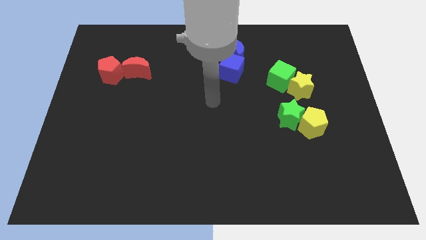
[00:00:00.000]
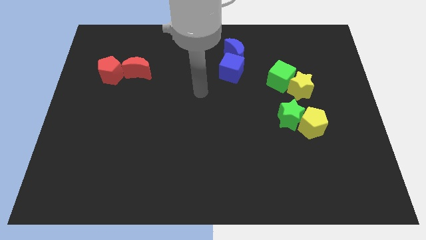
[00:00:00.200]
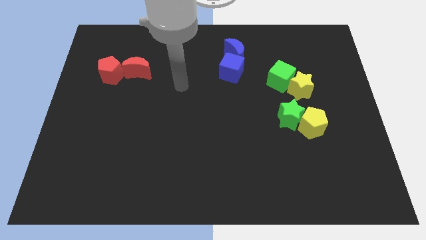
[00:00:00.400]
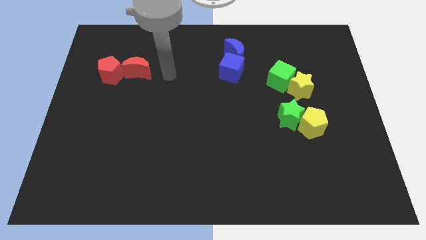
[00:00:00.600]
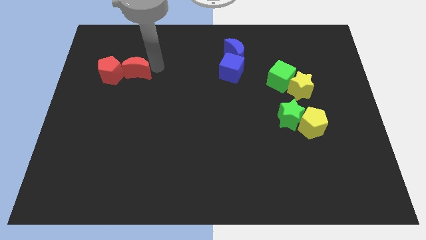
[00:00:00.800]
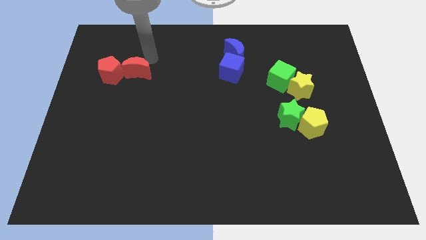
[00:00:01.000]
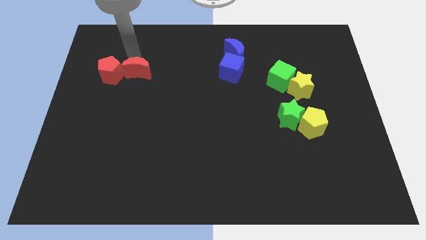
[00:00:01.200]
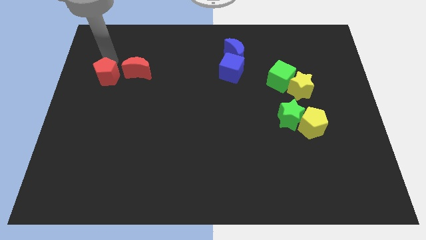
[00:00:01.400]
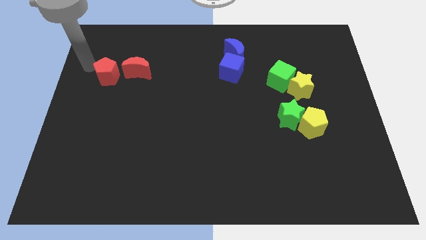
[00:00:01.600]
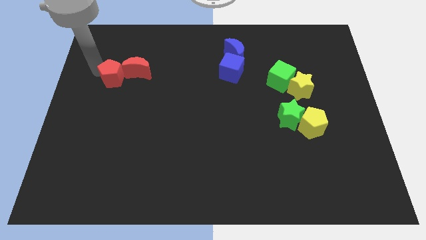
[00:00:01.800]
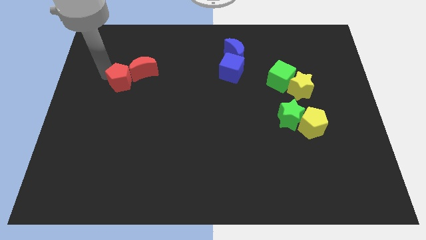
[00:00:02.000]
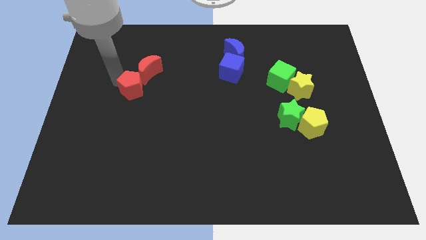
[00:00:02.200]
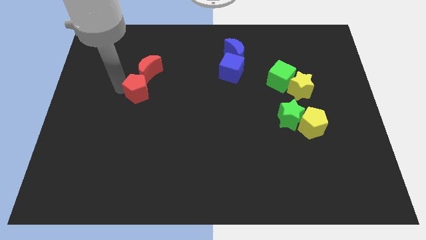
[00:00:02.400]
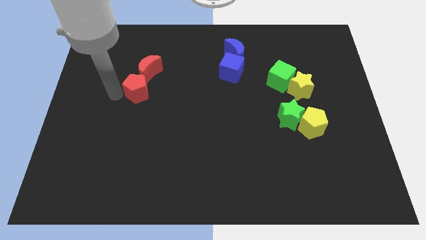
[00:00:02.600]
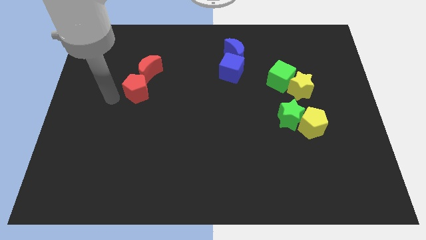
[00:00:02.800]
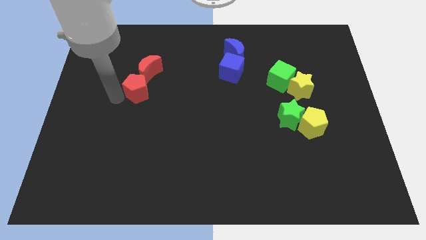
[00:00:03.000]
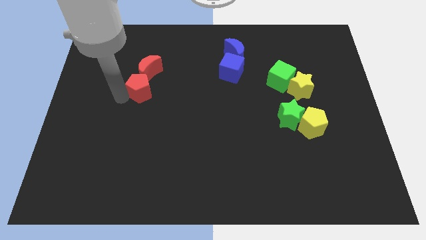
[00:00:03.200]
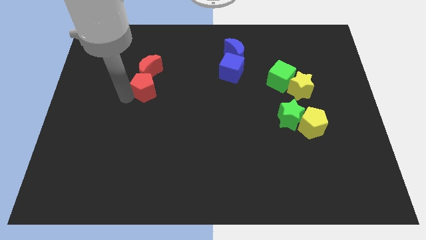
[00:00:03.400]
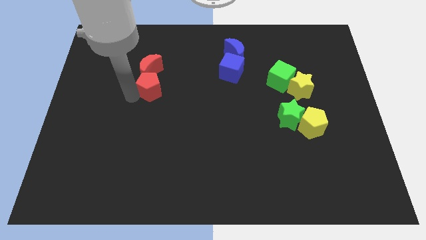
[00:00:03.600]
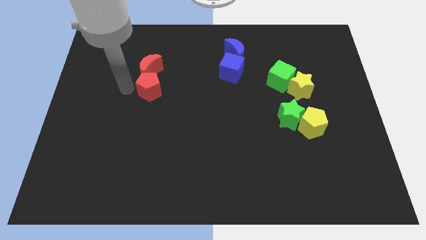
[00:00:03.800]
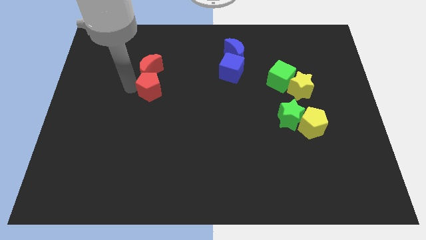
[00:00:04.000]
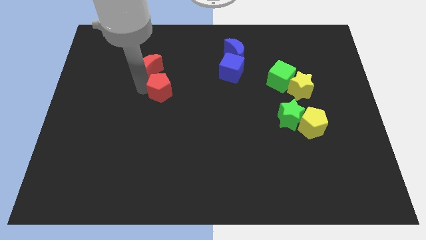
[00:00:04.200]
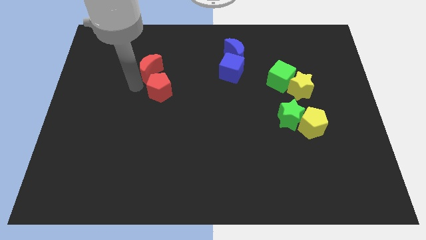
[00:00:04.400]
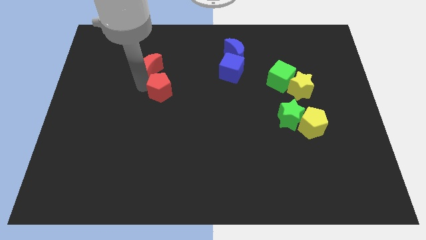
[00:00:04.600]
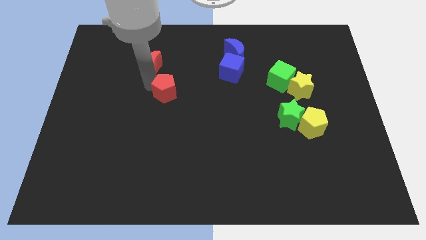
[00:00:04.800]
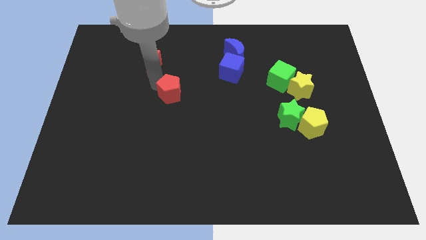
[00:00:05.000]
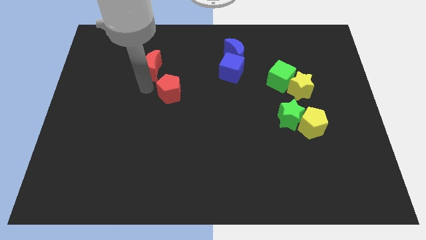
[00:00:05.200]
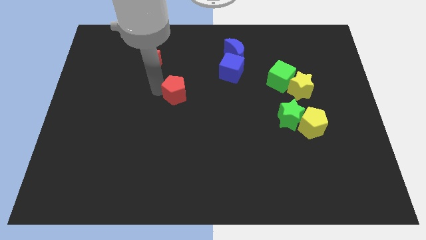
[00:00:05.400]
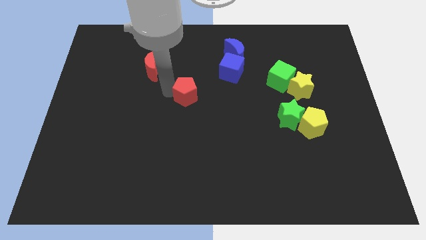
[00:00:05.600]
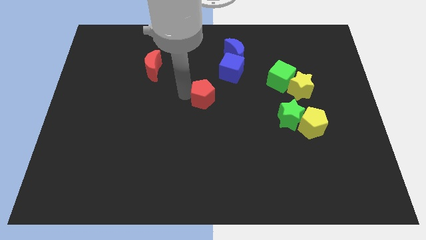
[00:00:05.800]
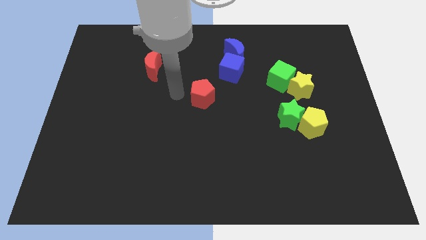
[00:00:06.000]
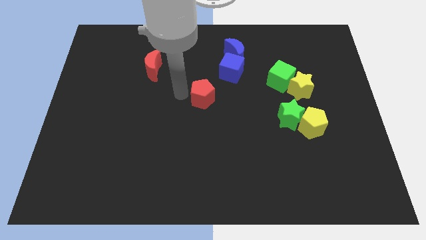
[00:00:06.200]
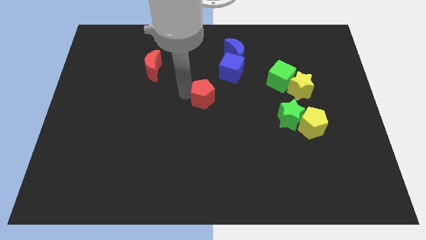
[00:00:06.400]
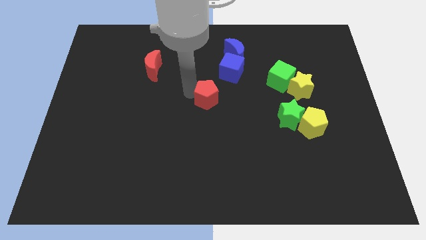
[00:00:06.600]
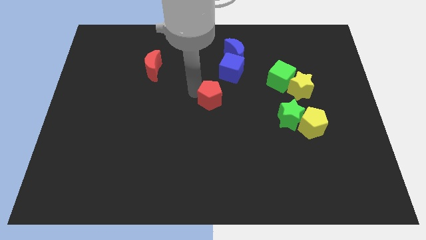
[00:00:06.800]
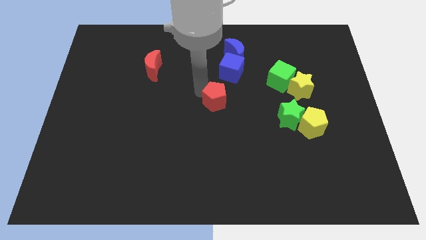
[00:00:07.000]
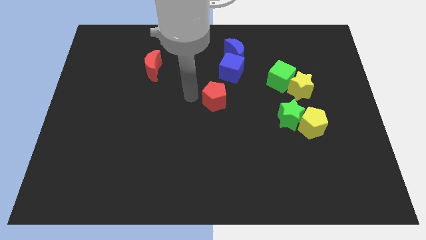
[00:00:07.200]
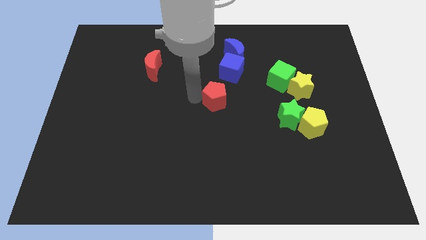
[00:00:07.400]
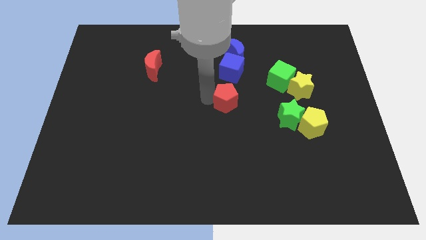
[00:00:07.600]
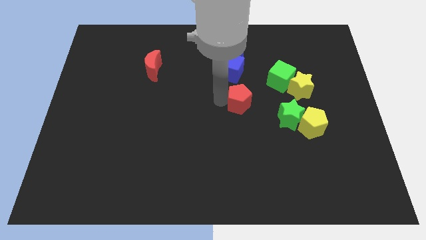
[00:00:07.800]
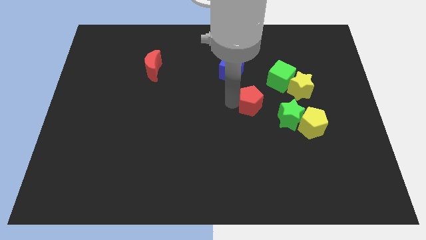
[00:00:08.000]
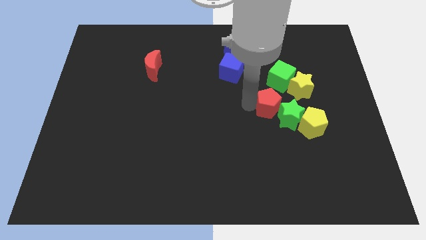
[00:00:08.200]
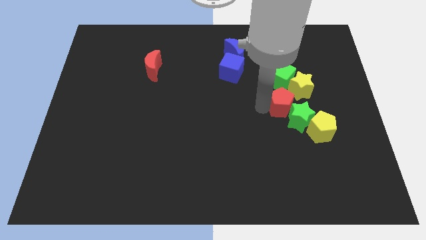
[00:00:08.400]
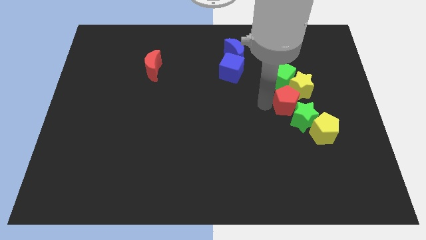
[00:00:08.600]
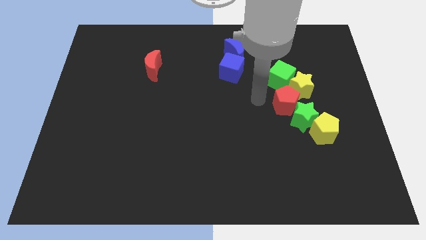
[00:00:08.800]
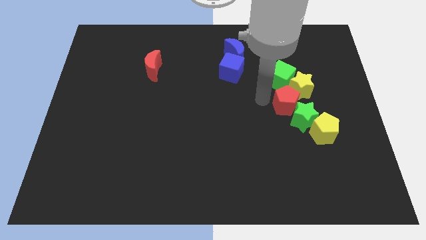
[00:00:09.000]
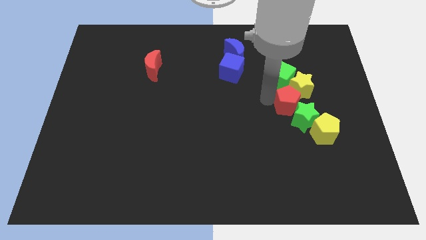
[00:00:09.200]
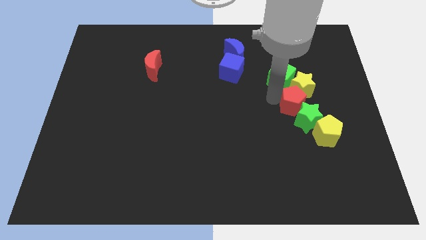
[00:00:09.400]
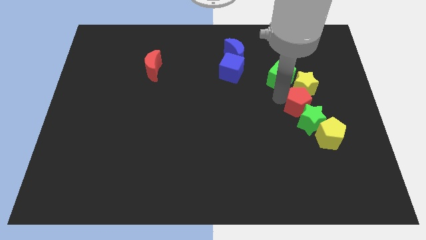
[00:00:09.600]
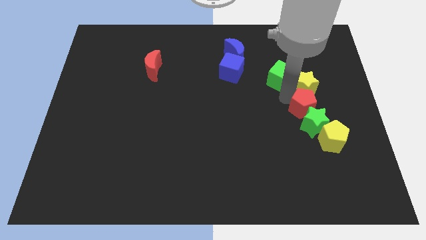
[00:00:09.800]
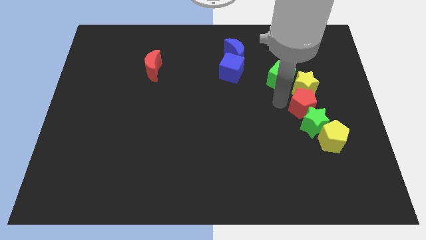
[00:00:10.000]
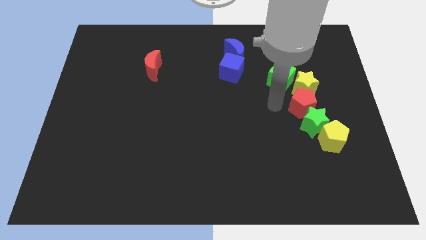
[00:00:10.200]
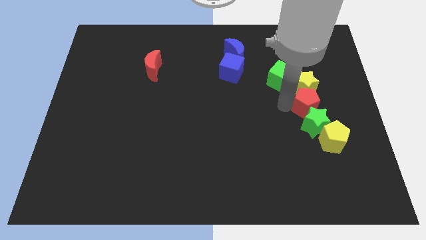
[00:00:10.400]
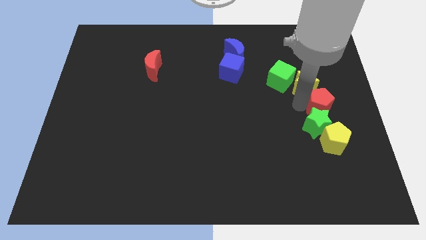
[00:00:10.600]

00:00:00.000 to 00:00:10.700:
put the red pentagon to the right side of the board

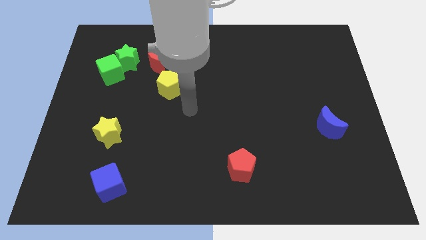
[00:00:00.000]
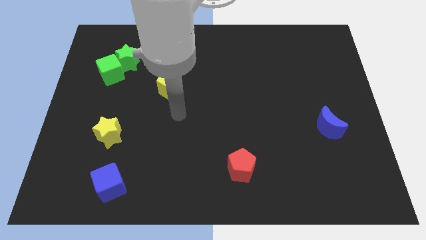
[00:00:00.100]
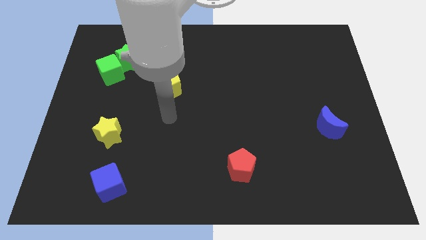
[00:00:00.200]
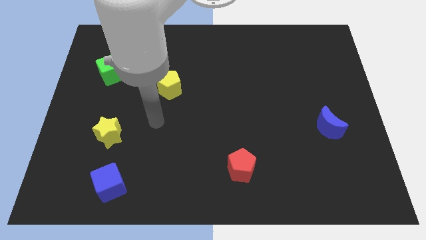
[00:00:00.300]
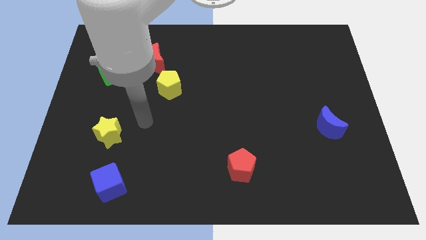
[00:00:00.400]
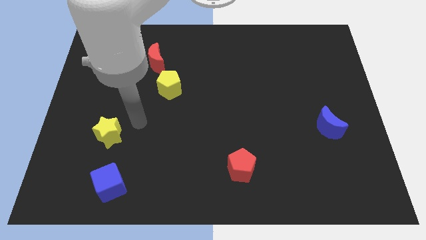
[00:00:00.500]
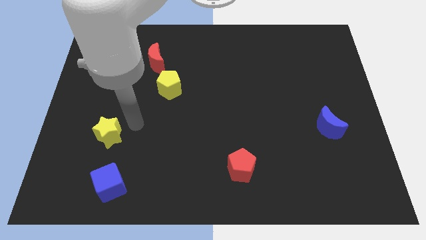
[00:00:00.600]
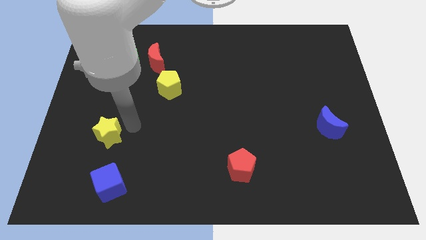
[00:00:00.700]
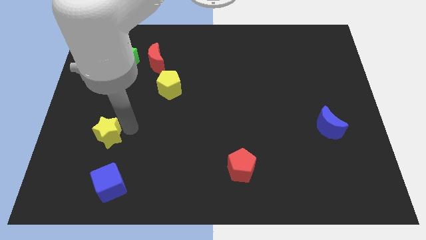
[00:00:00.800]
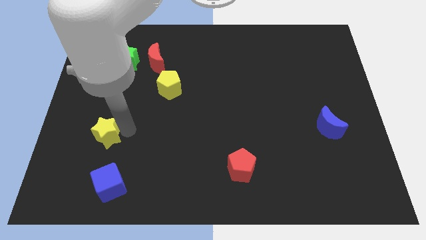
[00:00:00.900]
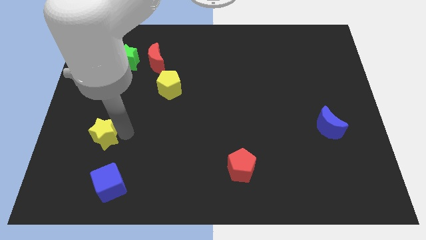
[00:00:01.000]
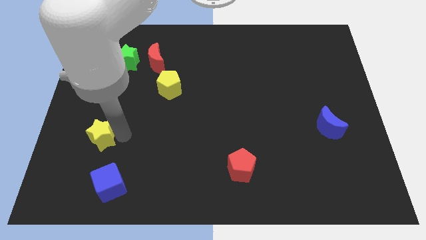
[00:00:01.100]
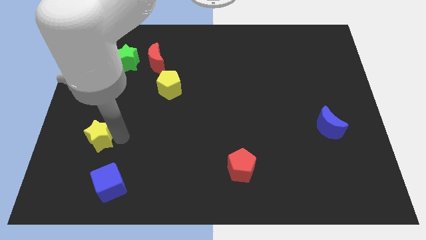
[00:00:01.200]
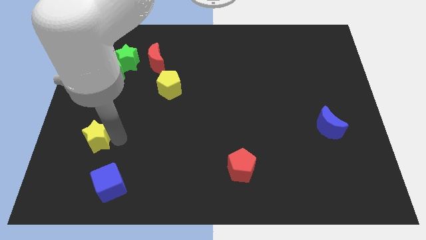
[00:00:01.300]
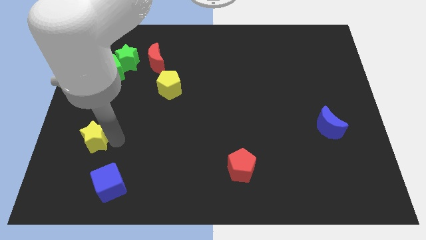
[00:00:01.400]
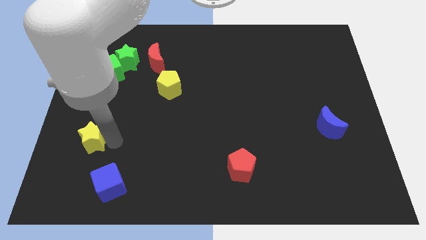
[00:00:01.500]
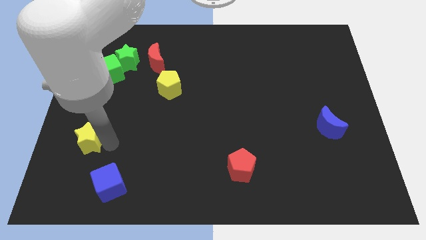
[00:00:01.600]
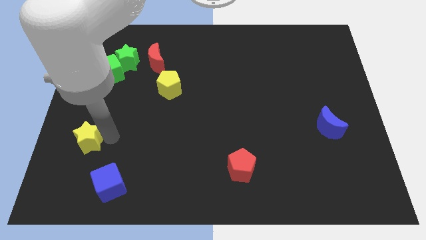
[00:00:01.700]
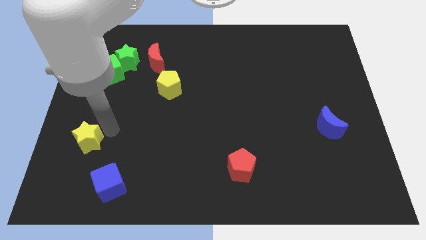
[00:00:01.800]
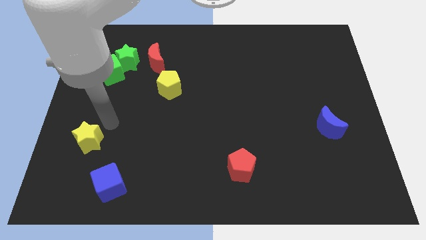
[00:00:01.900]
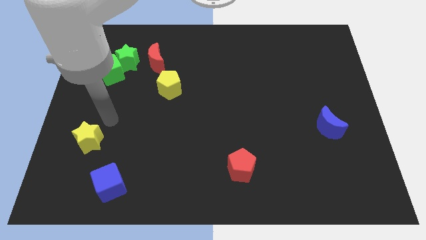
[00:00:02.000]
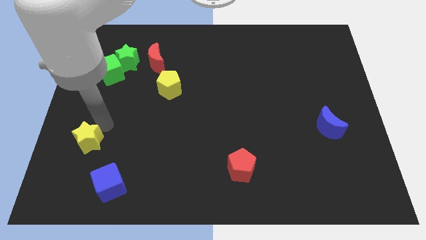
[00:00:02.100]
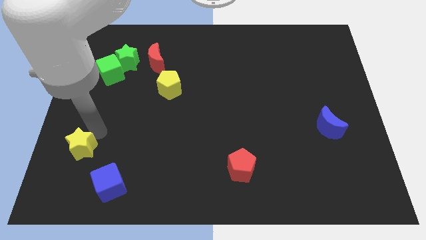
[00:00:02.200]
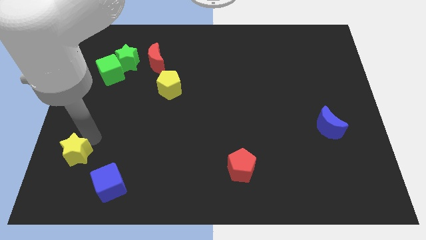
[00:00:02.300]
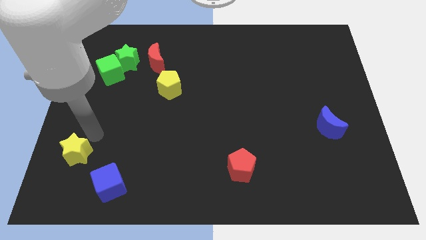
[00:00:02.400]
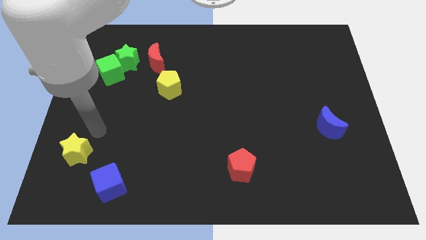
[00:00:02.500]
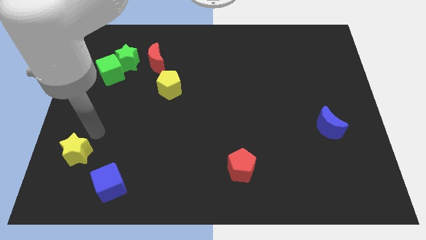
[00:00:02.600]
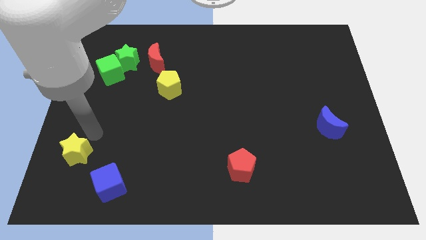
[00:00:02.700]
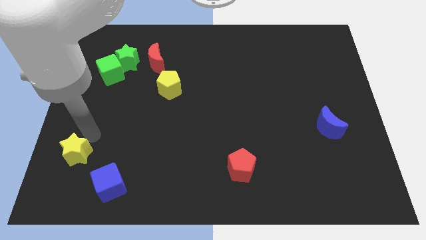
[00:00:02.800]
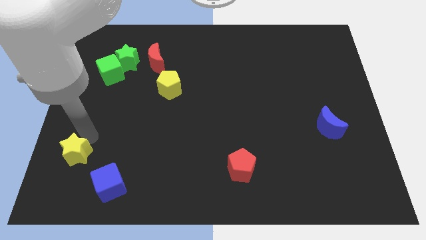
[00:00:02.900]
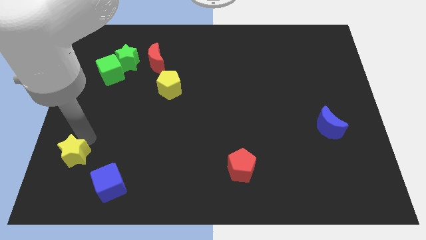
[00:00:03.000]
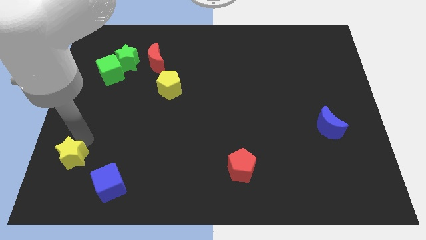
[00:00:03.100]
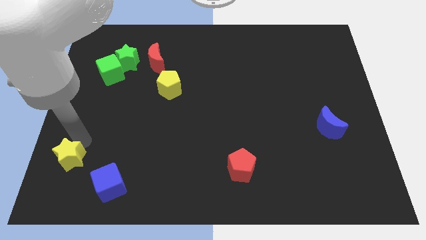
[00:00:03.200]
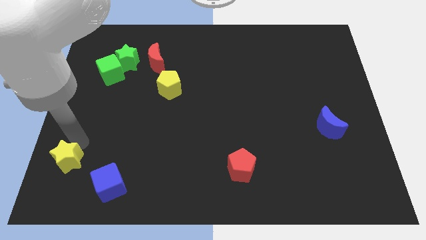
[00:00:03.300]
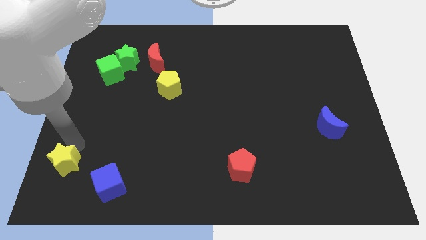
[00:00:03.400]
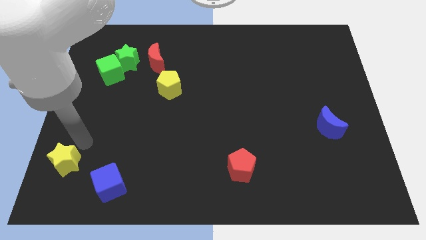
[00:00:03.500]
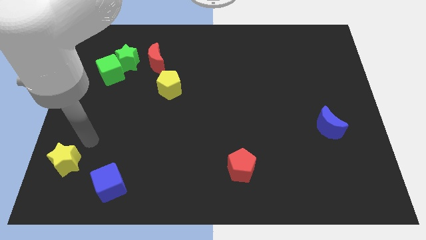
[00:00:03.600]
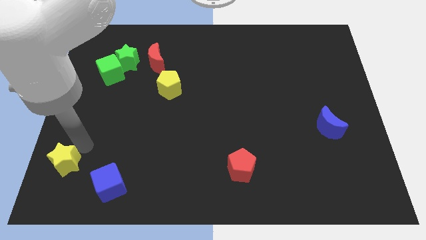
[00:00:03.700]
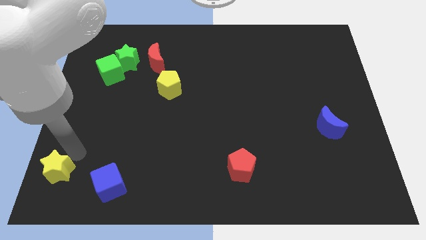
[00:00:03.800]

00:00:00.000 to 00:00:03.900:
put the yellow star to the bottom left
